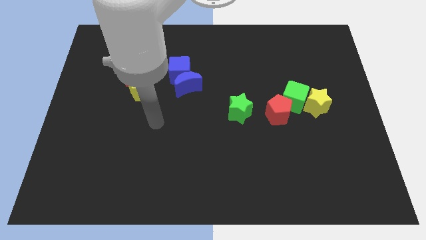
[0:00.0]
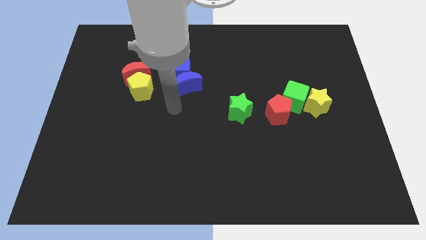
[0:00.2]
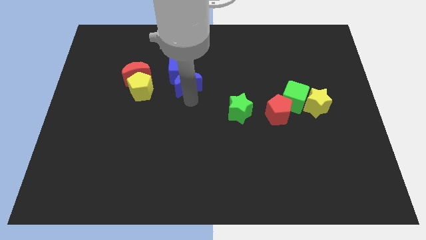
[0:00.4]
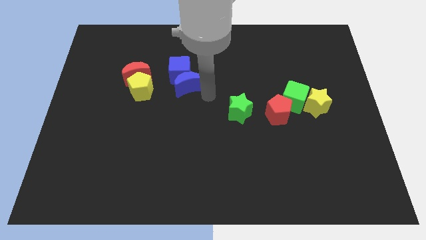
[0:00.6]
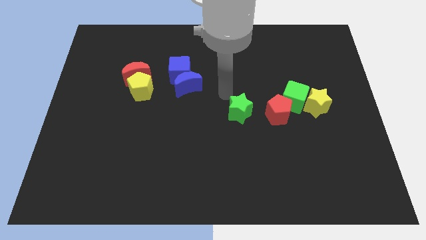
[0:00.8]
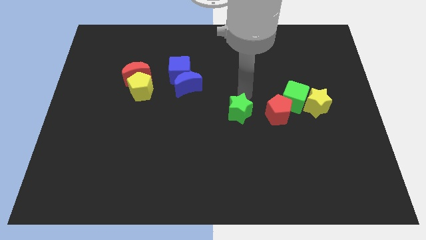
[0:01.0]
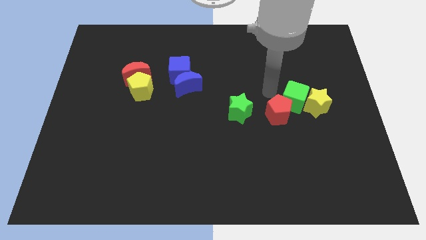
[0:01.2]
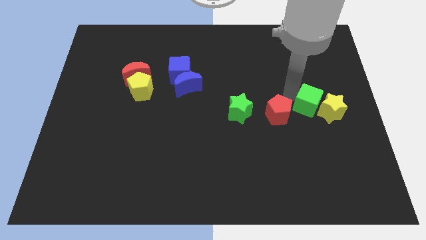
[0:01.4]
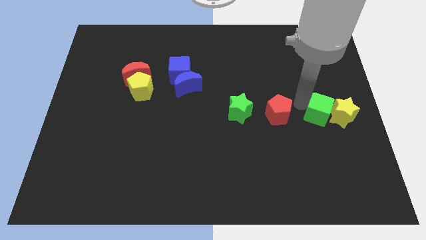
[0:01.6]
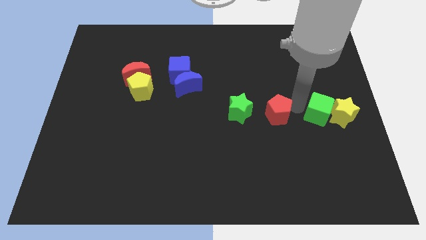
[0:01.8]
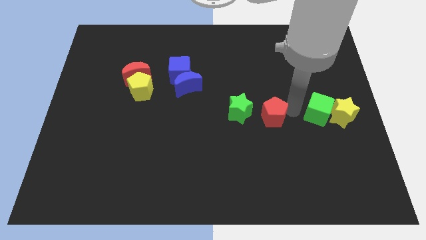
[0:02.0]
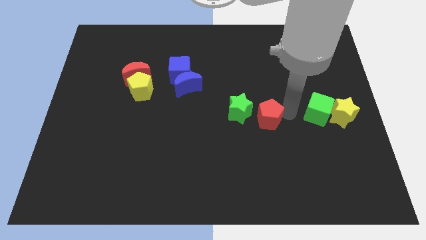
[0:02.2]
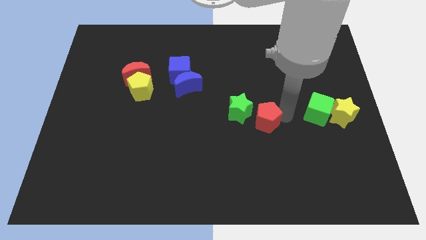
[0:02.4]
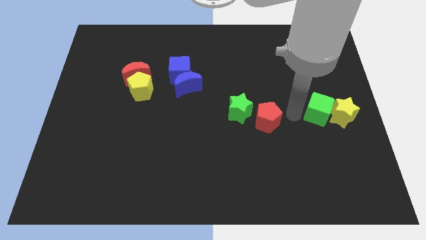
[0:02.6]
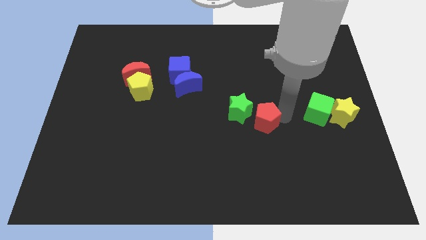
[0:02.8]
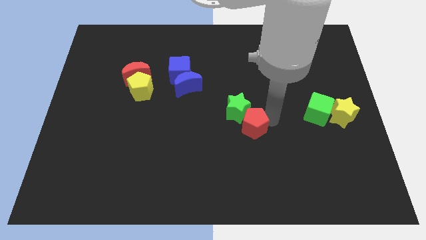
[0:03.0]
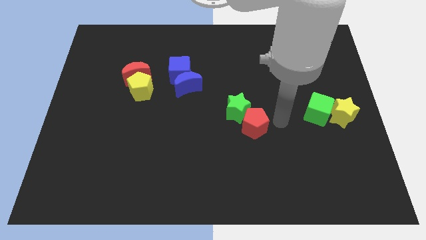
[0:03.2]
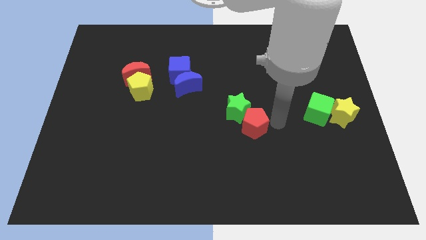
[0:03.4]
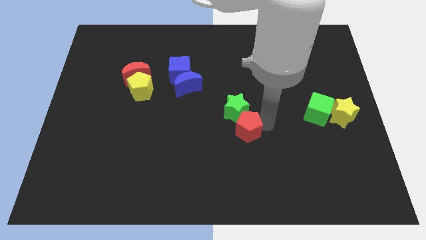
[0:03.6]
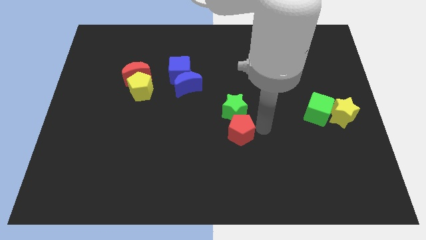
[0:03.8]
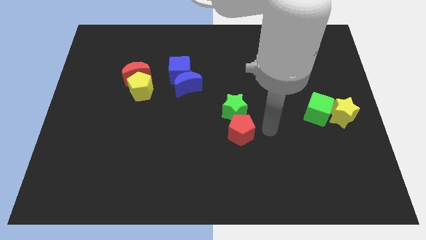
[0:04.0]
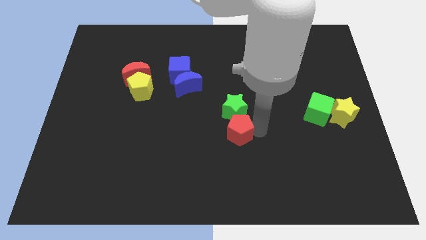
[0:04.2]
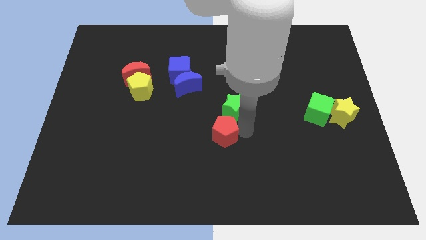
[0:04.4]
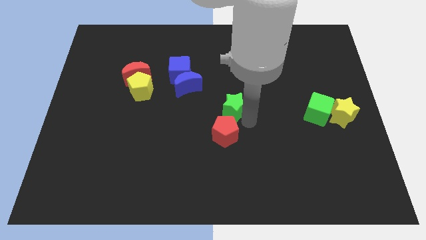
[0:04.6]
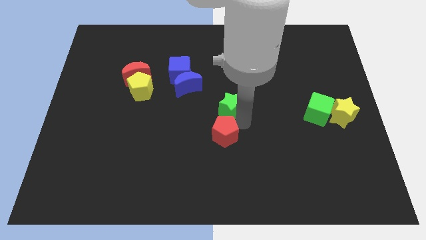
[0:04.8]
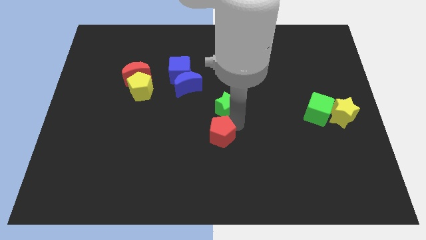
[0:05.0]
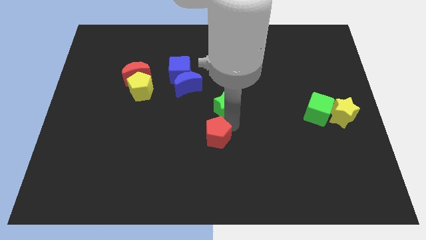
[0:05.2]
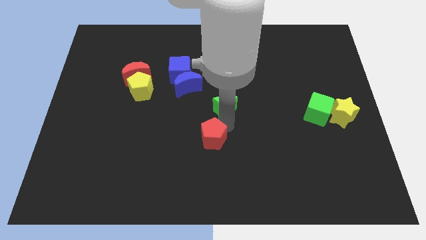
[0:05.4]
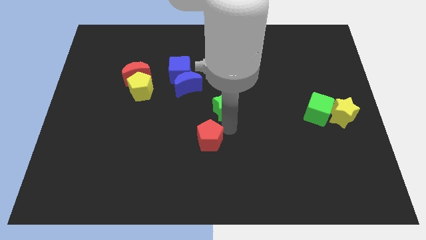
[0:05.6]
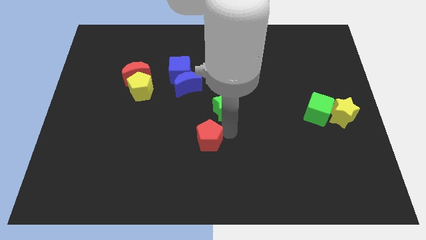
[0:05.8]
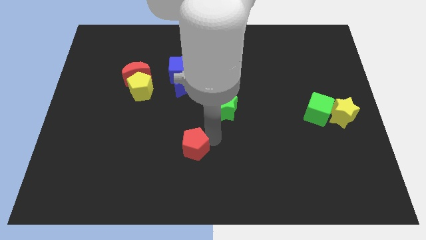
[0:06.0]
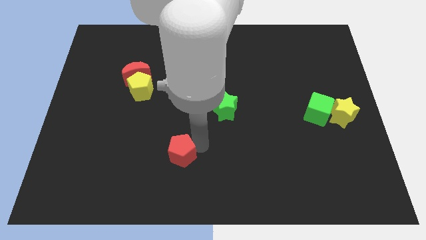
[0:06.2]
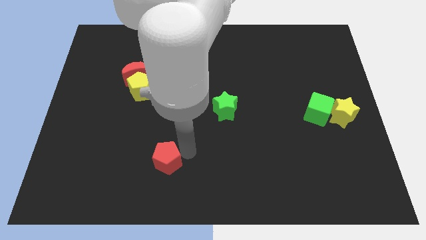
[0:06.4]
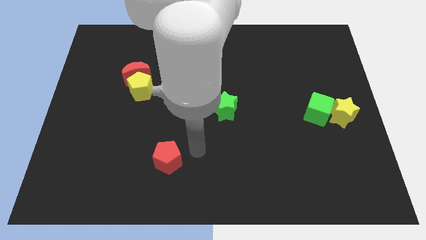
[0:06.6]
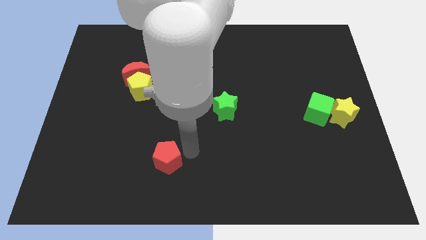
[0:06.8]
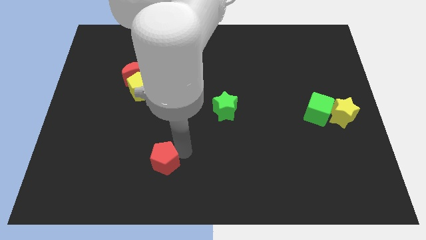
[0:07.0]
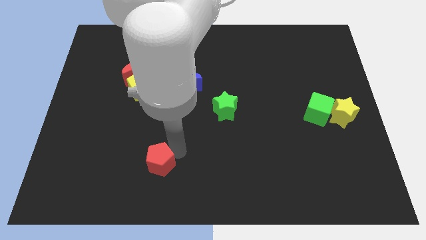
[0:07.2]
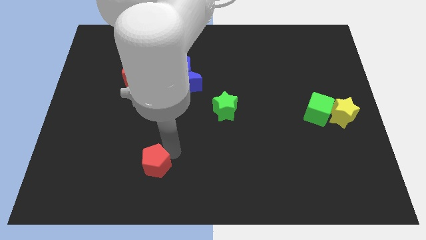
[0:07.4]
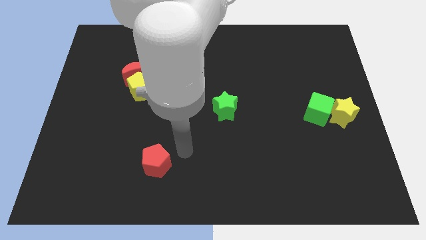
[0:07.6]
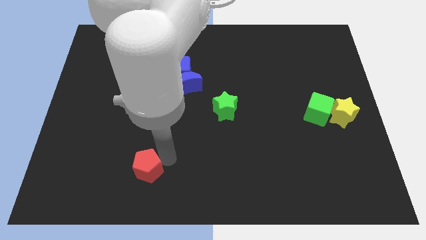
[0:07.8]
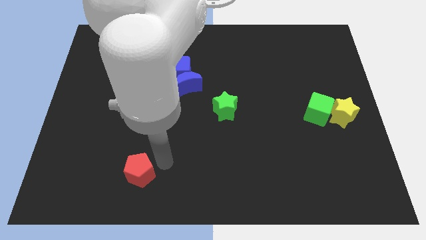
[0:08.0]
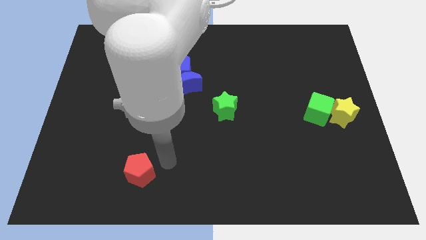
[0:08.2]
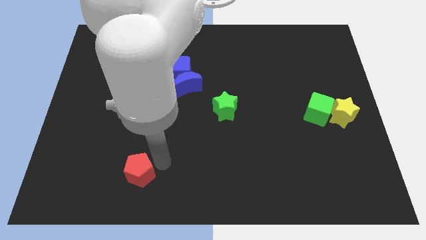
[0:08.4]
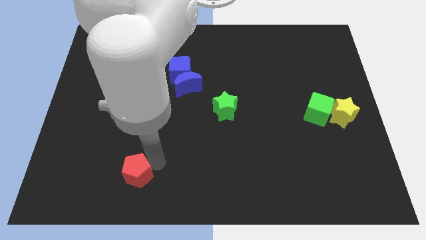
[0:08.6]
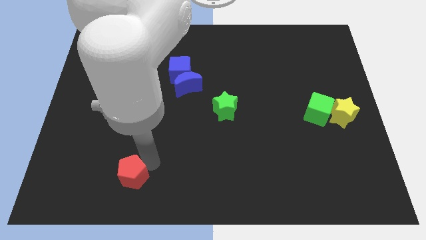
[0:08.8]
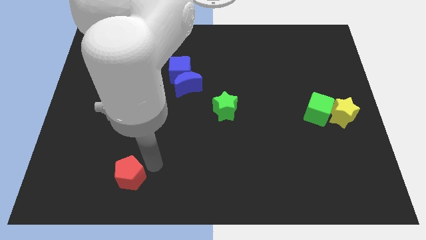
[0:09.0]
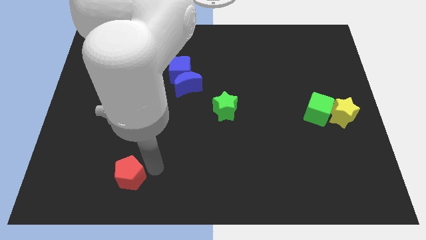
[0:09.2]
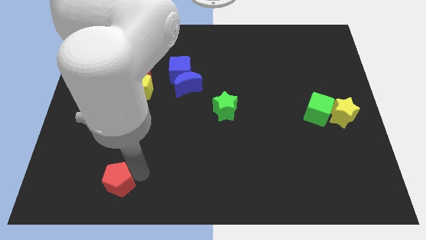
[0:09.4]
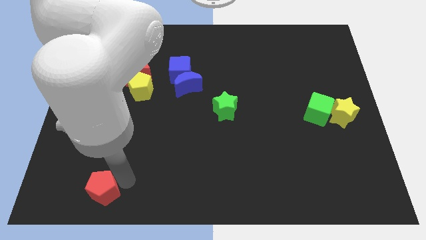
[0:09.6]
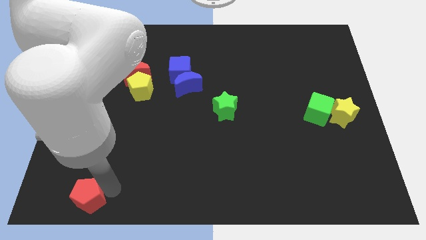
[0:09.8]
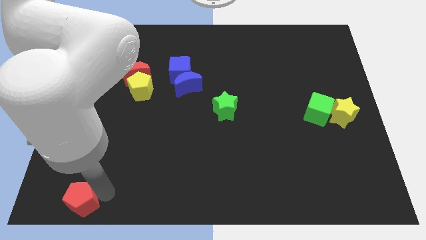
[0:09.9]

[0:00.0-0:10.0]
push the red pentagon to the bottom left corner

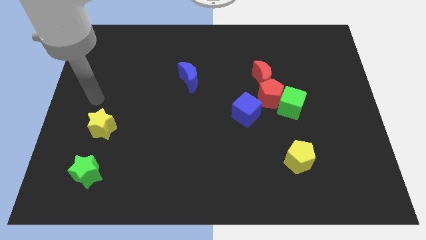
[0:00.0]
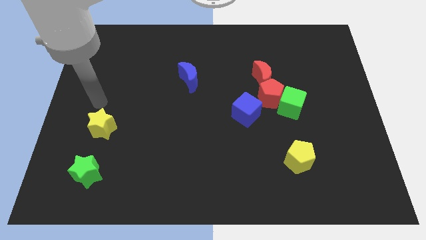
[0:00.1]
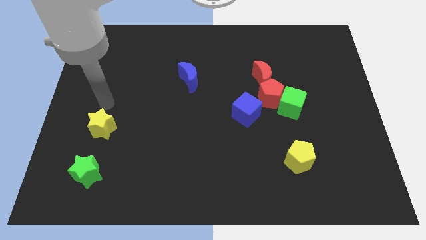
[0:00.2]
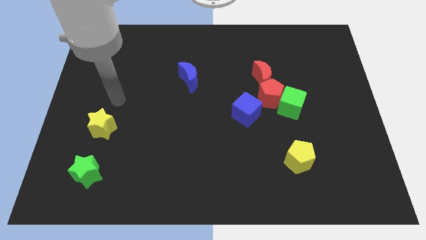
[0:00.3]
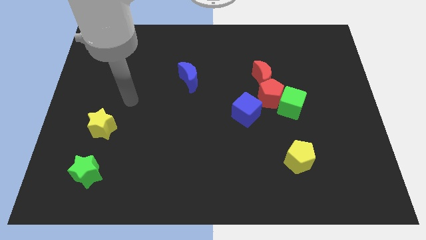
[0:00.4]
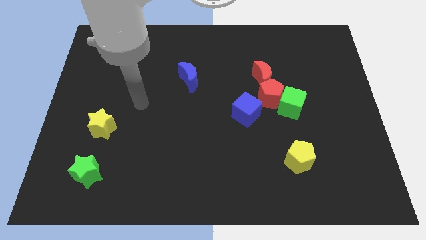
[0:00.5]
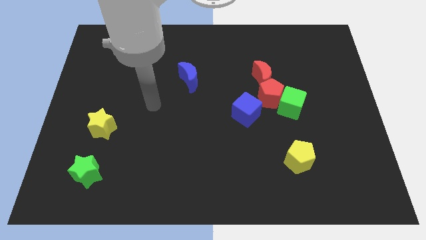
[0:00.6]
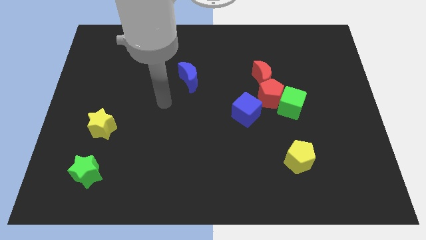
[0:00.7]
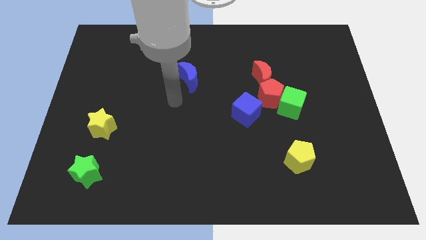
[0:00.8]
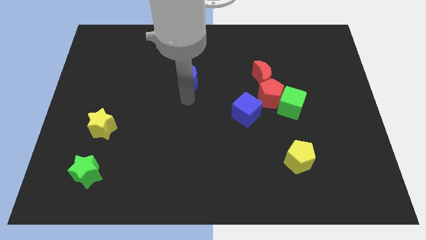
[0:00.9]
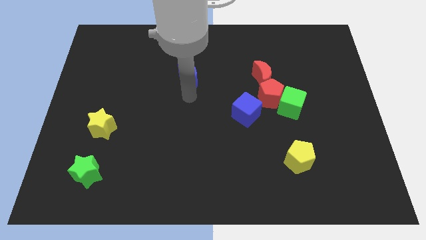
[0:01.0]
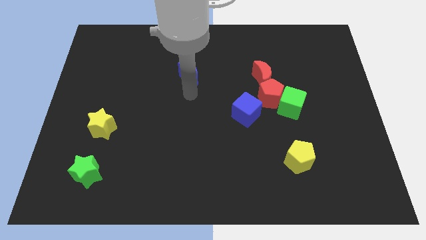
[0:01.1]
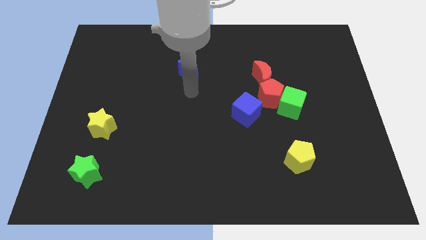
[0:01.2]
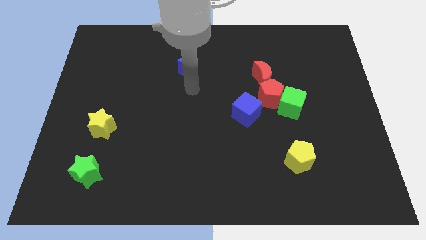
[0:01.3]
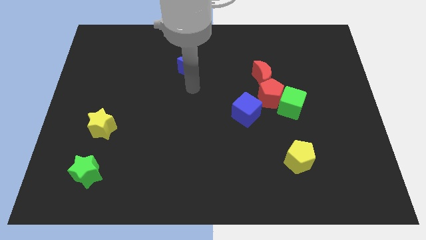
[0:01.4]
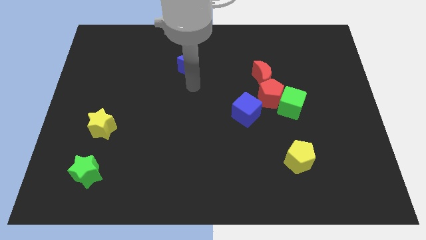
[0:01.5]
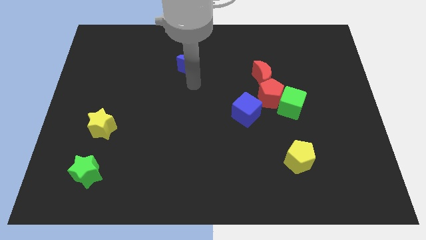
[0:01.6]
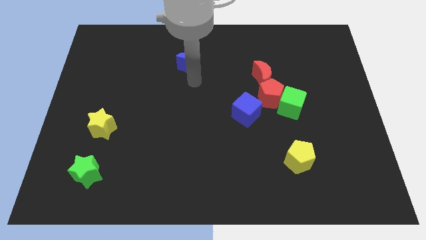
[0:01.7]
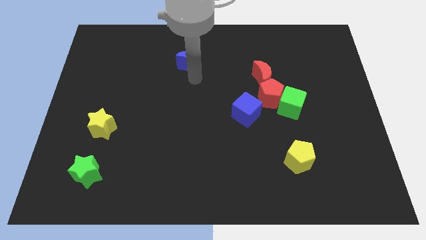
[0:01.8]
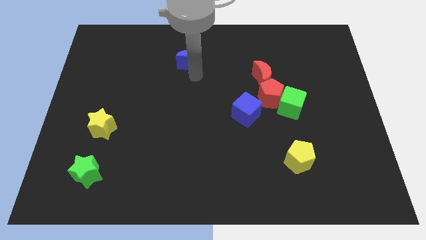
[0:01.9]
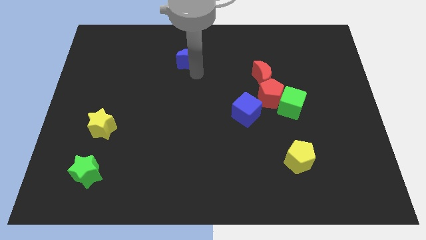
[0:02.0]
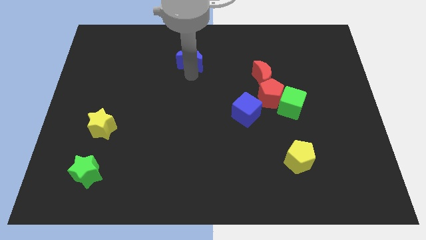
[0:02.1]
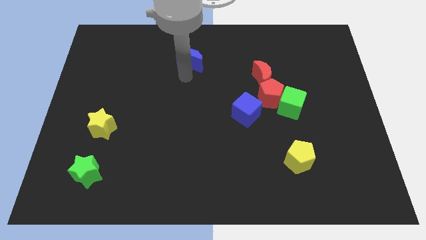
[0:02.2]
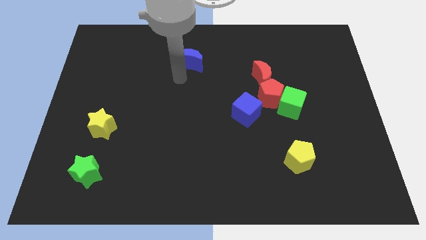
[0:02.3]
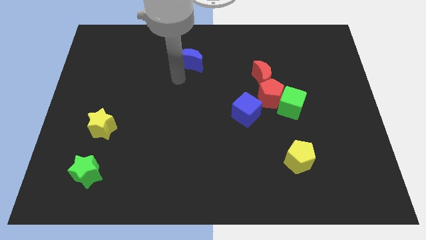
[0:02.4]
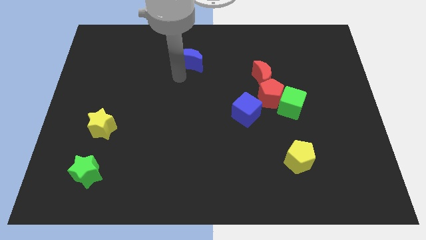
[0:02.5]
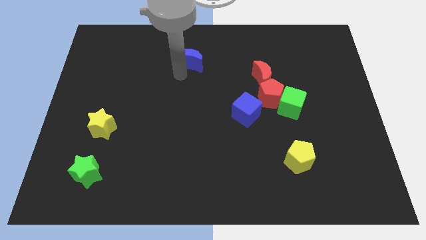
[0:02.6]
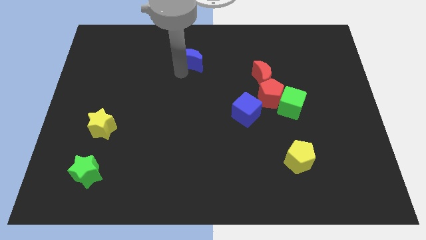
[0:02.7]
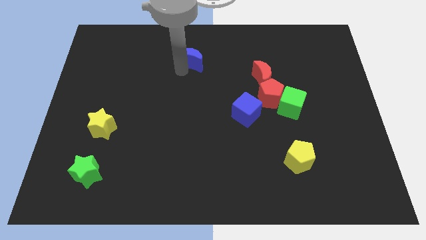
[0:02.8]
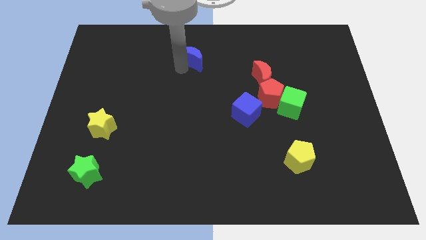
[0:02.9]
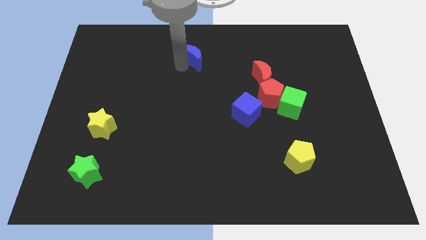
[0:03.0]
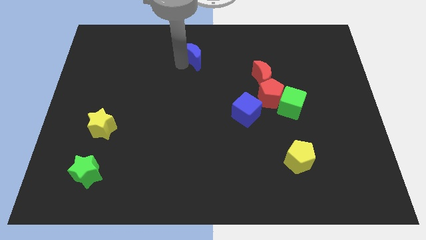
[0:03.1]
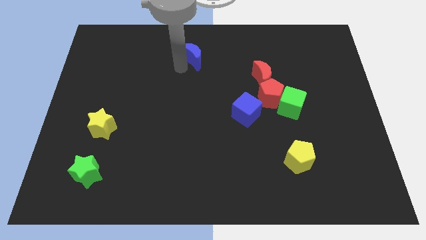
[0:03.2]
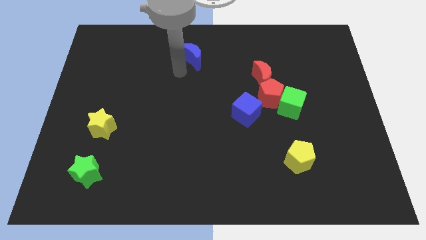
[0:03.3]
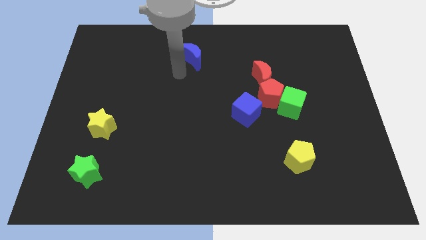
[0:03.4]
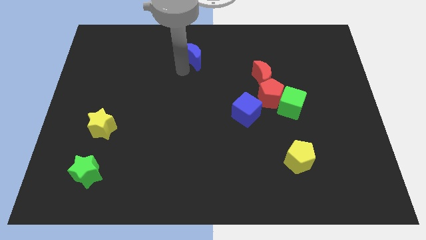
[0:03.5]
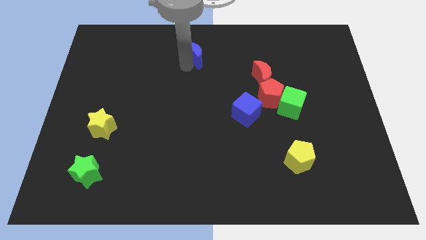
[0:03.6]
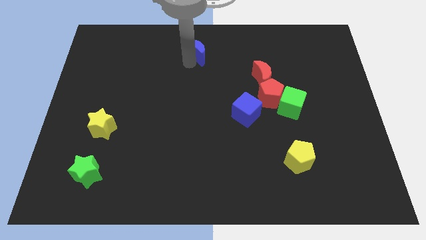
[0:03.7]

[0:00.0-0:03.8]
put the blue moon to the top
